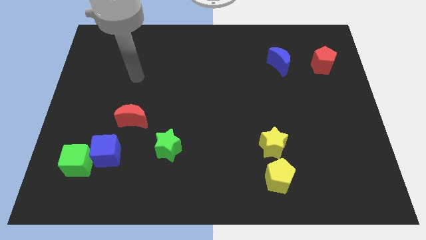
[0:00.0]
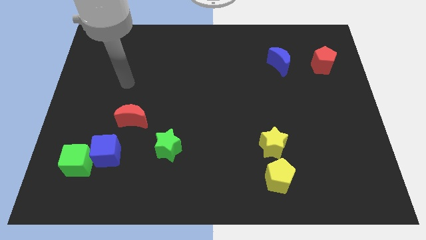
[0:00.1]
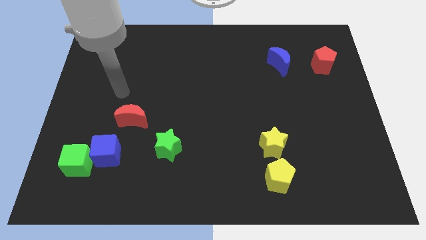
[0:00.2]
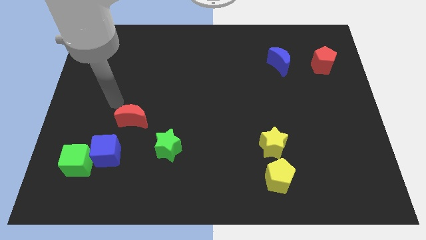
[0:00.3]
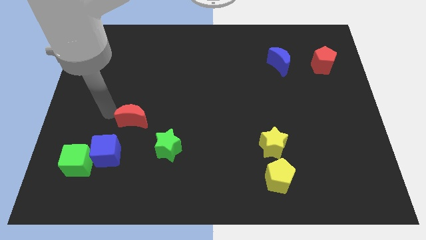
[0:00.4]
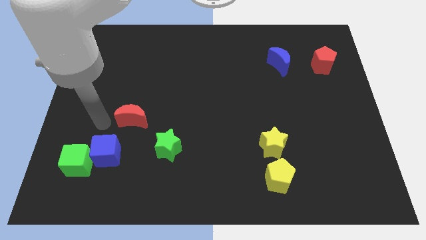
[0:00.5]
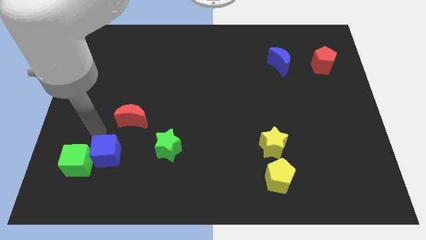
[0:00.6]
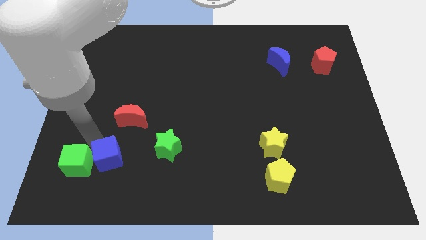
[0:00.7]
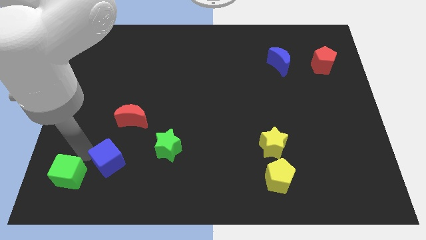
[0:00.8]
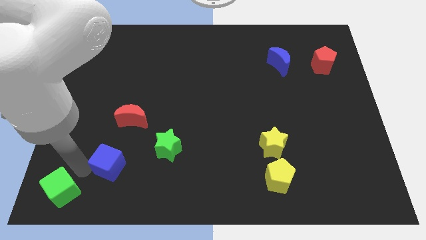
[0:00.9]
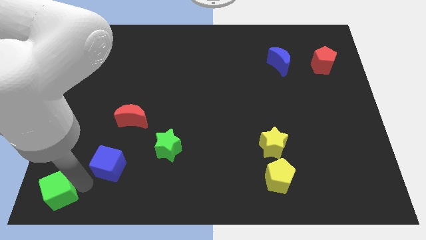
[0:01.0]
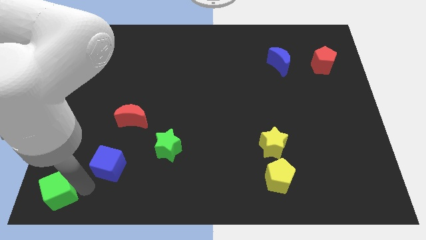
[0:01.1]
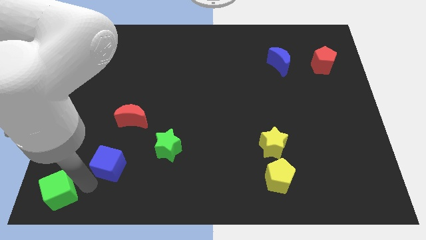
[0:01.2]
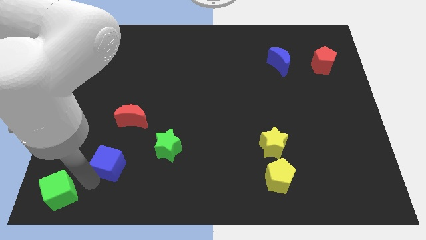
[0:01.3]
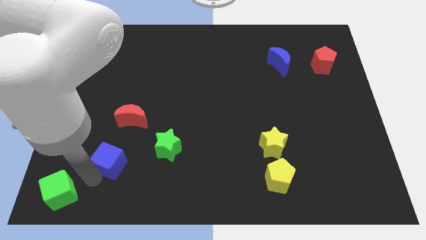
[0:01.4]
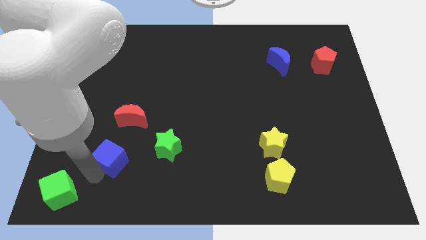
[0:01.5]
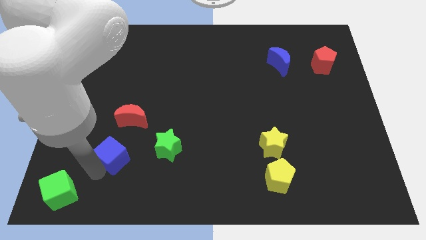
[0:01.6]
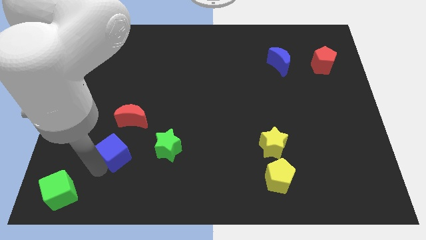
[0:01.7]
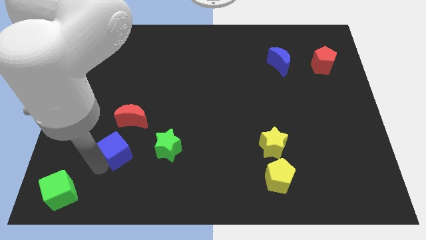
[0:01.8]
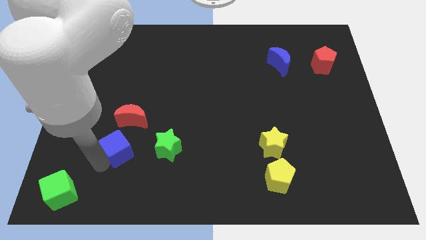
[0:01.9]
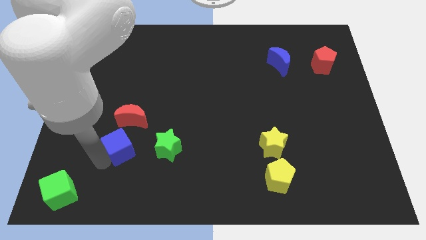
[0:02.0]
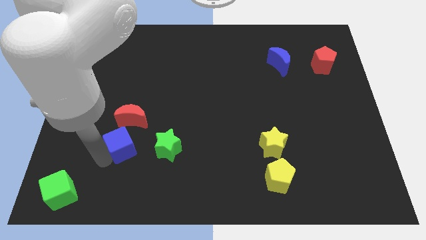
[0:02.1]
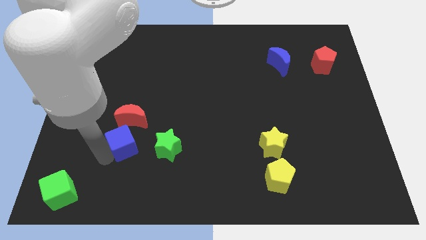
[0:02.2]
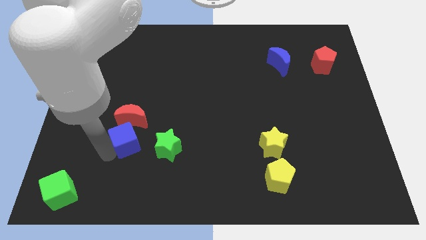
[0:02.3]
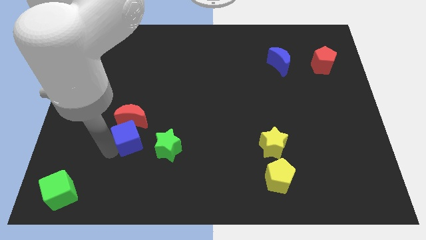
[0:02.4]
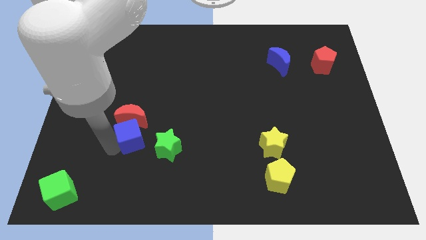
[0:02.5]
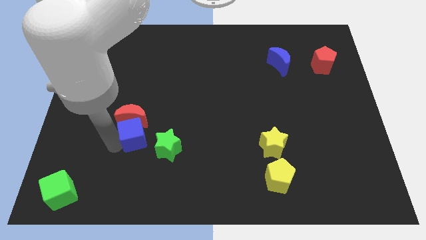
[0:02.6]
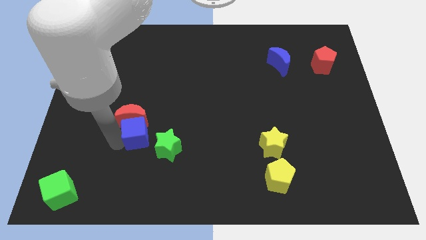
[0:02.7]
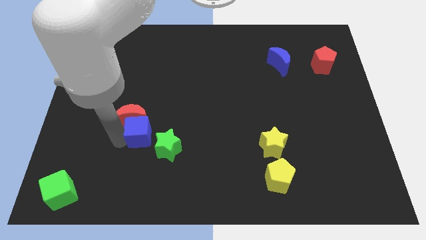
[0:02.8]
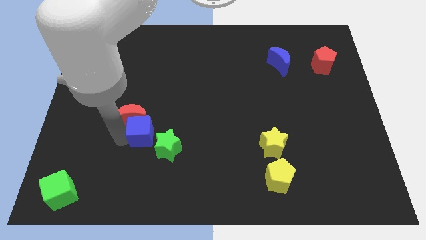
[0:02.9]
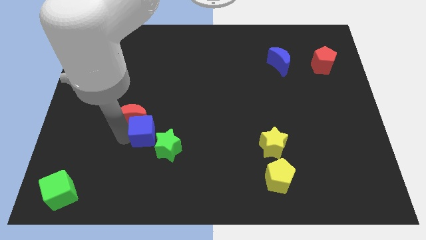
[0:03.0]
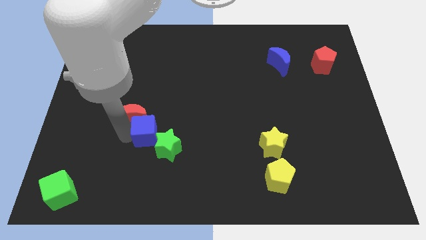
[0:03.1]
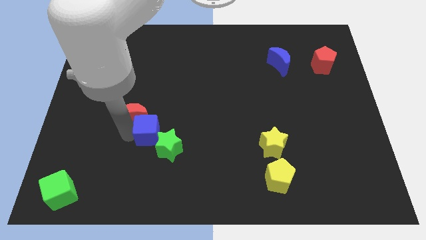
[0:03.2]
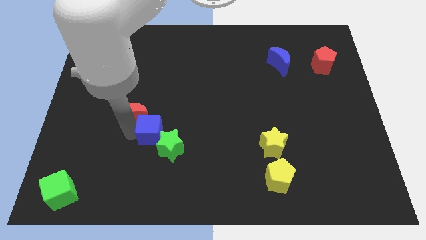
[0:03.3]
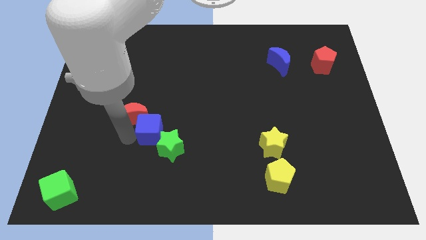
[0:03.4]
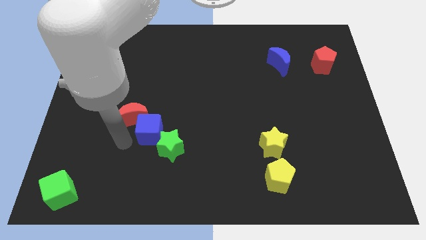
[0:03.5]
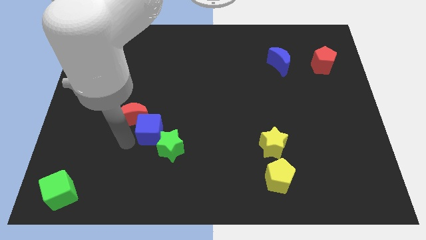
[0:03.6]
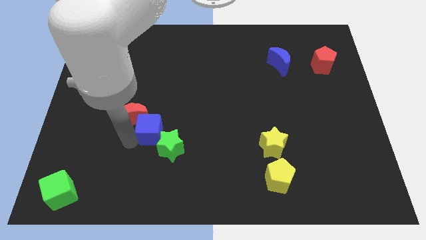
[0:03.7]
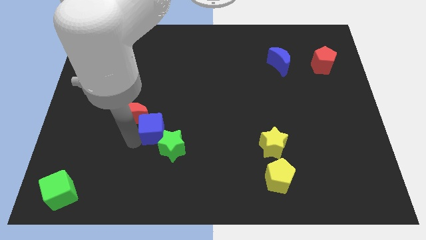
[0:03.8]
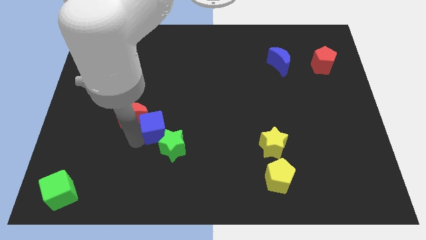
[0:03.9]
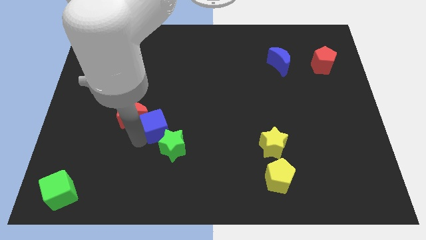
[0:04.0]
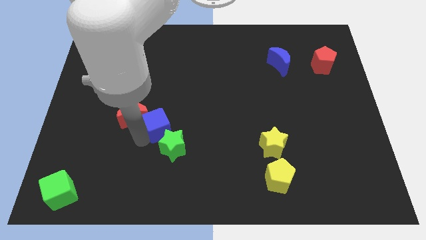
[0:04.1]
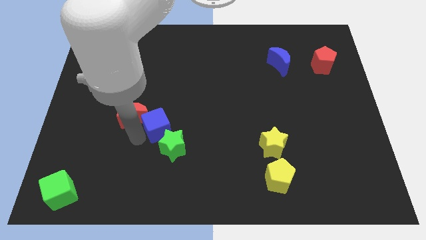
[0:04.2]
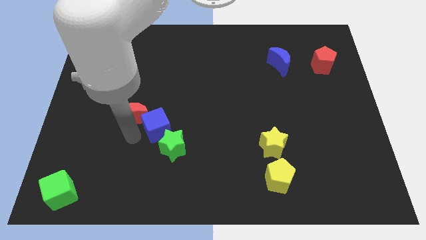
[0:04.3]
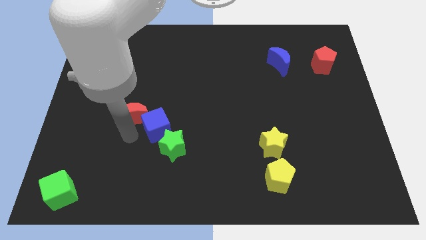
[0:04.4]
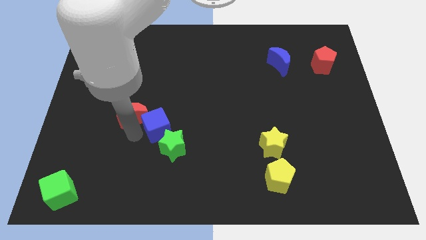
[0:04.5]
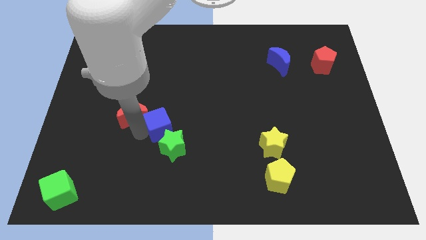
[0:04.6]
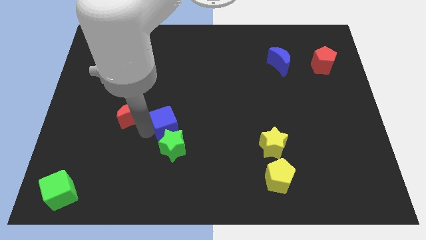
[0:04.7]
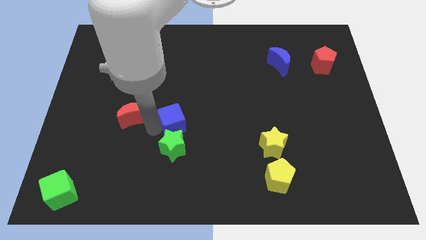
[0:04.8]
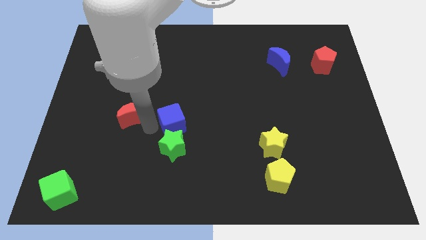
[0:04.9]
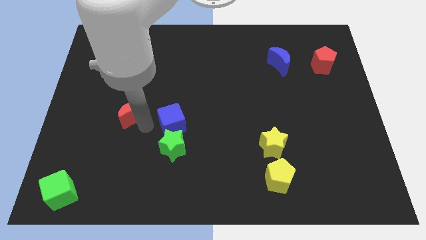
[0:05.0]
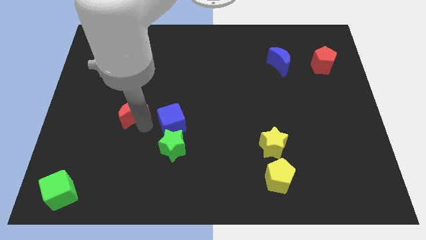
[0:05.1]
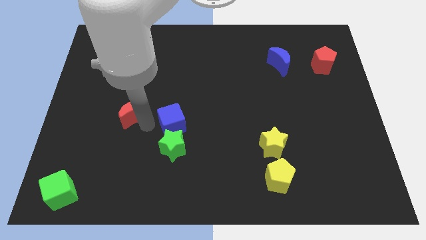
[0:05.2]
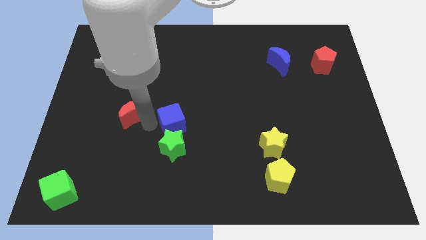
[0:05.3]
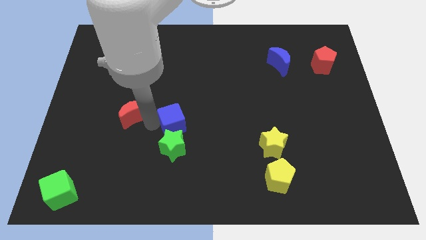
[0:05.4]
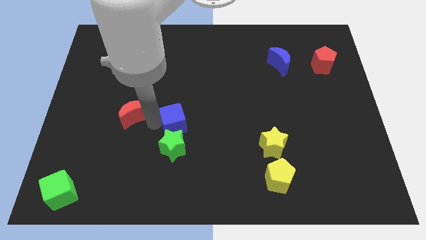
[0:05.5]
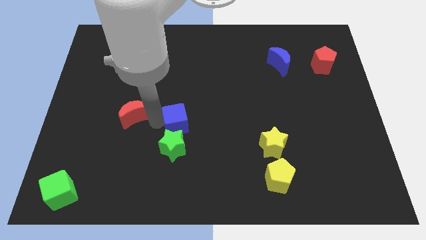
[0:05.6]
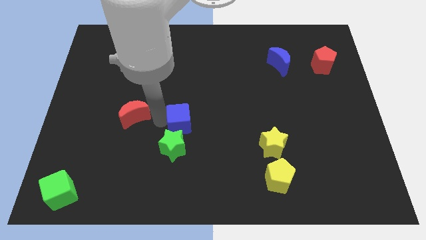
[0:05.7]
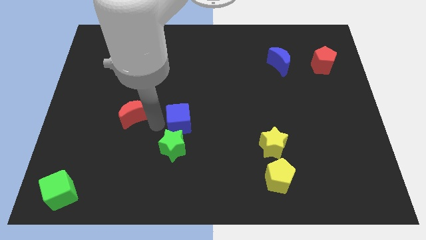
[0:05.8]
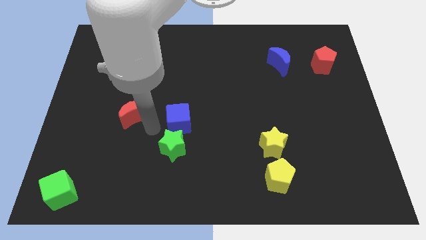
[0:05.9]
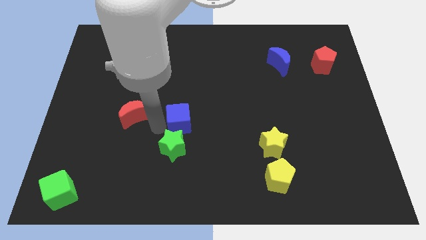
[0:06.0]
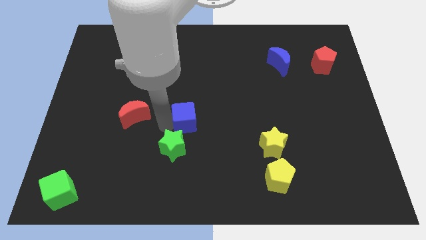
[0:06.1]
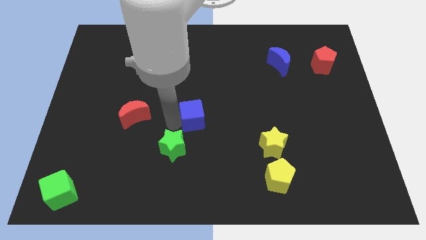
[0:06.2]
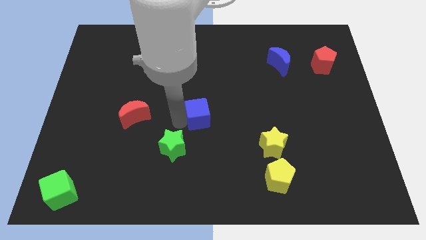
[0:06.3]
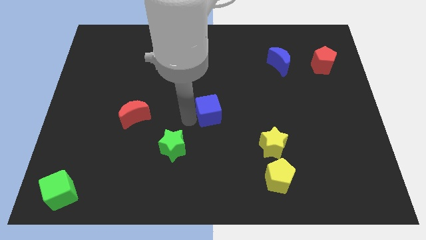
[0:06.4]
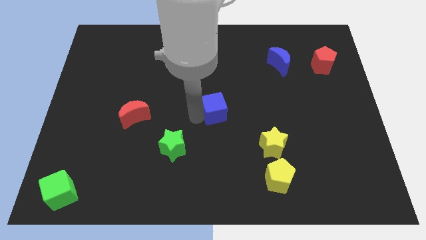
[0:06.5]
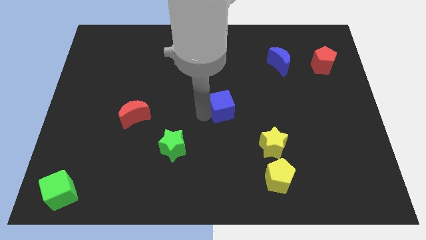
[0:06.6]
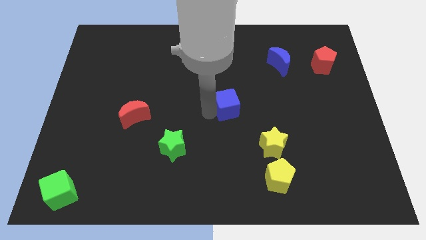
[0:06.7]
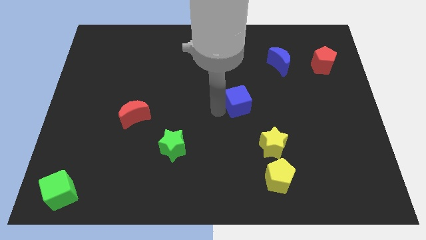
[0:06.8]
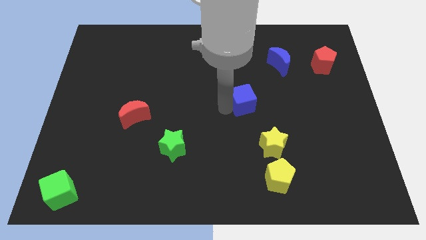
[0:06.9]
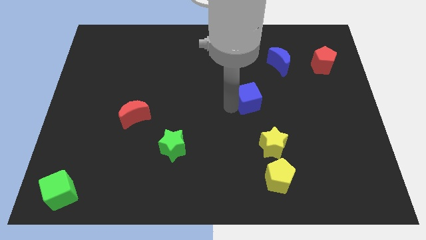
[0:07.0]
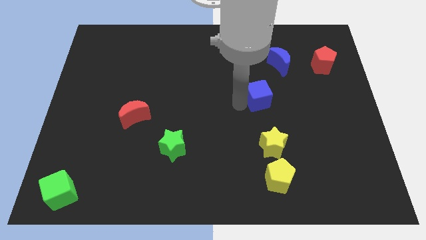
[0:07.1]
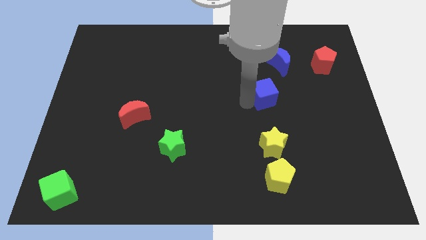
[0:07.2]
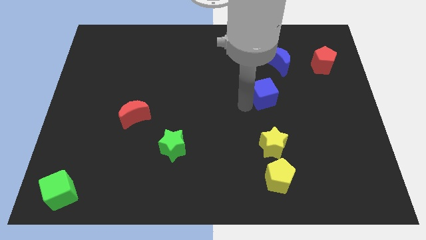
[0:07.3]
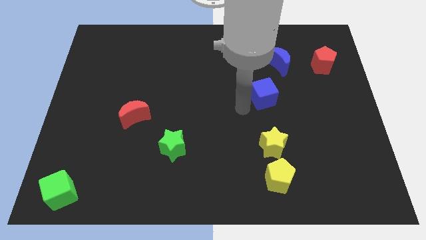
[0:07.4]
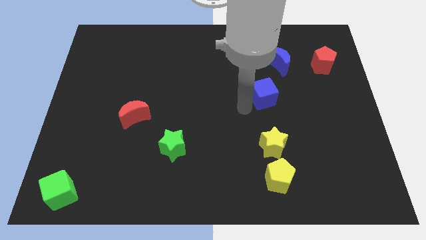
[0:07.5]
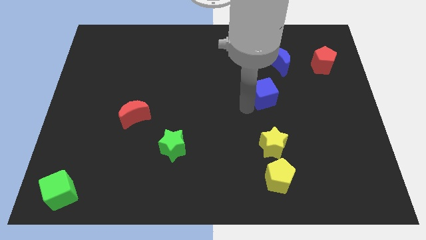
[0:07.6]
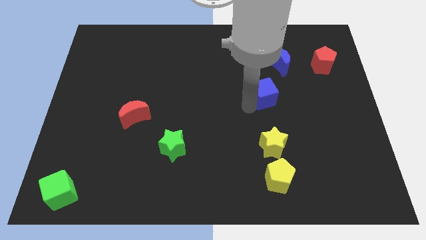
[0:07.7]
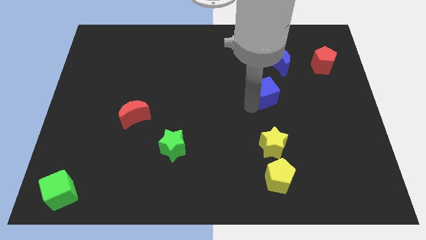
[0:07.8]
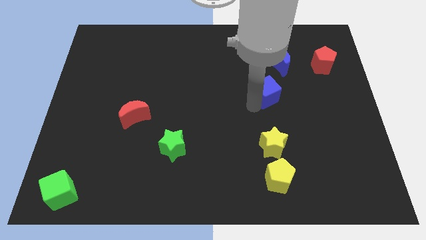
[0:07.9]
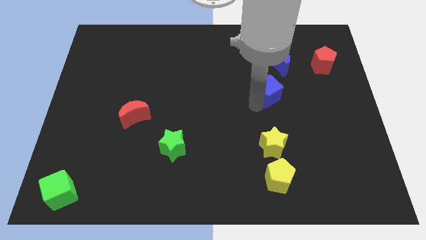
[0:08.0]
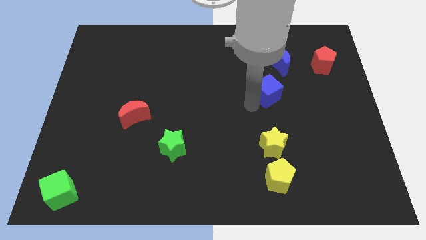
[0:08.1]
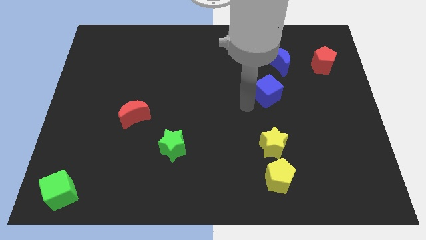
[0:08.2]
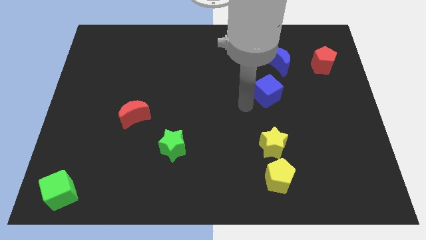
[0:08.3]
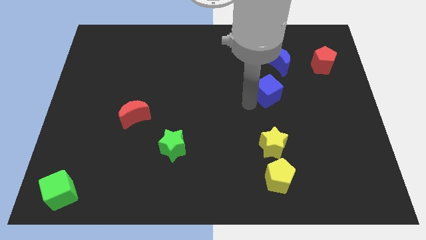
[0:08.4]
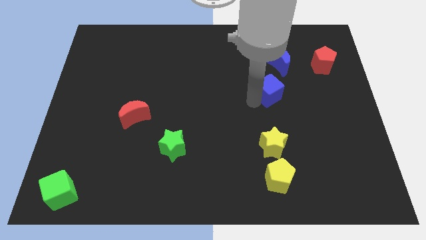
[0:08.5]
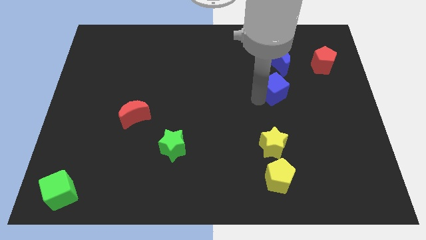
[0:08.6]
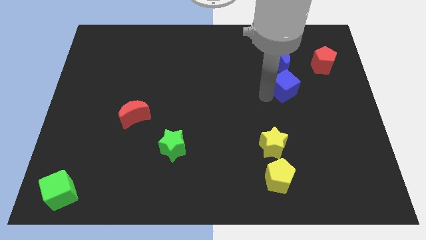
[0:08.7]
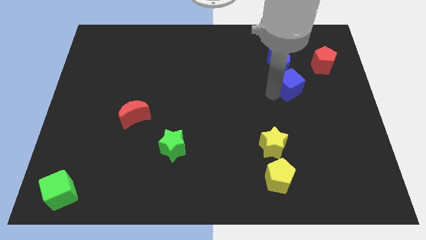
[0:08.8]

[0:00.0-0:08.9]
slide the blue cube to the bottom right of the blue moon
